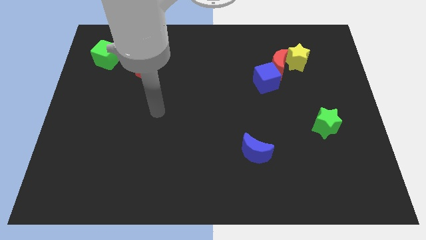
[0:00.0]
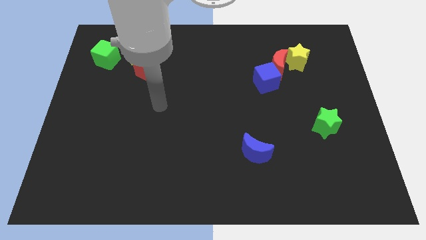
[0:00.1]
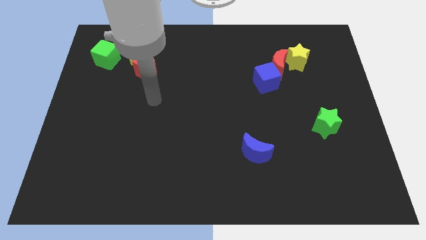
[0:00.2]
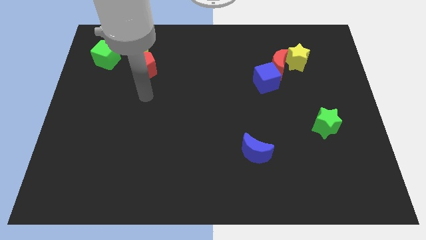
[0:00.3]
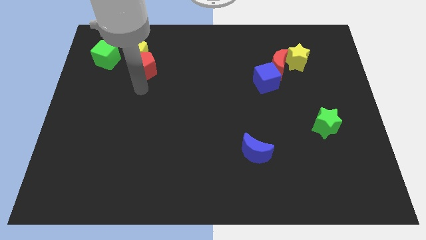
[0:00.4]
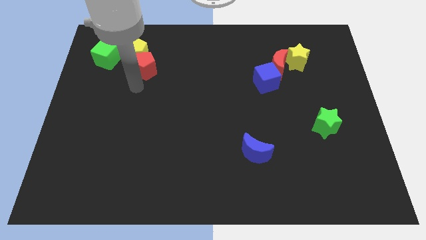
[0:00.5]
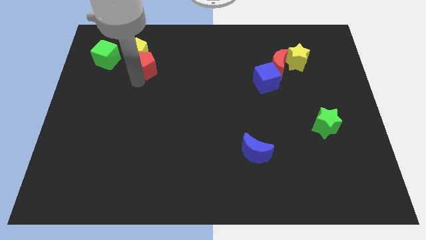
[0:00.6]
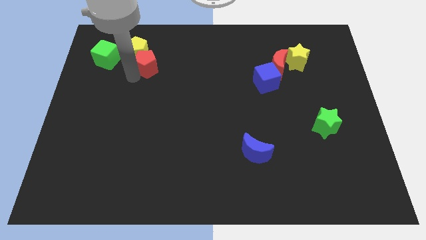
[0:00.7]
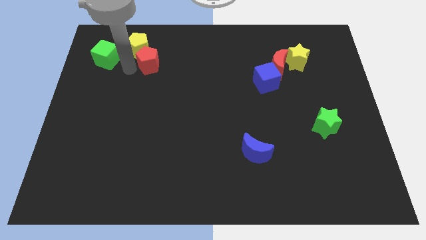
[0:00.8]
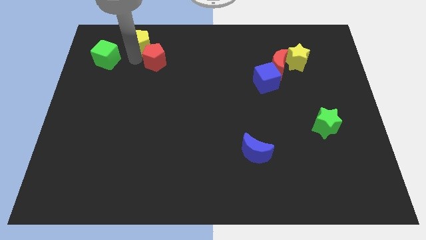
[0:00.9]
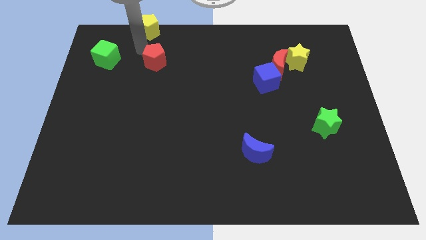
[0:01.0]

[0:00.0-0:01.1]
move the red pentagon away from the yellow pentagon

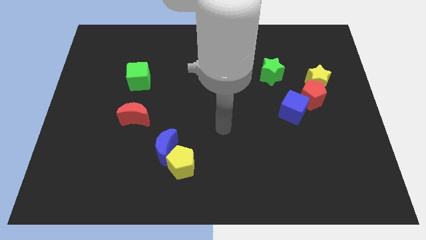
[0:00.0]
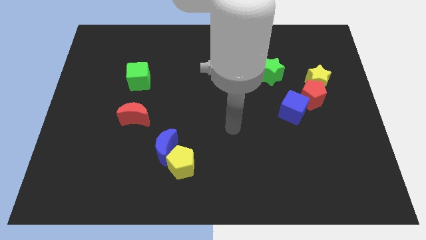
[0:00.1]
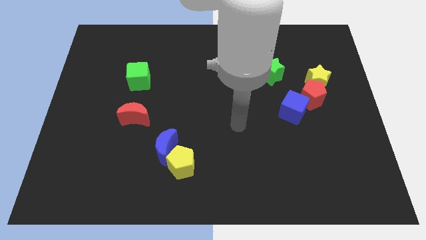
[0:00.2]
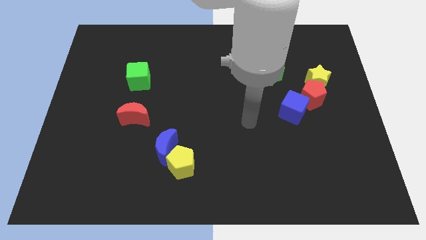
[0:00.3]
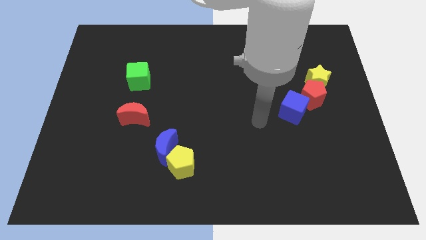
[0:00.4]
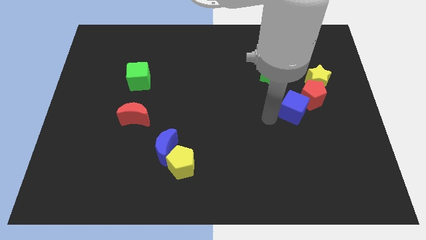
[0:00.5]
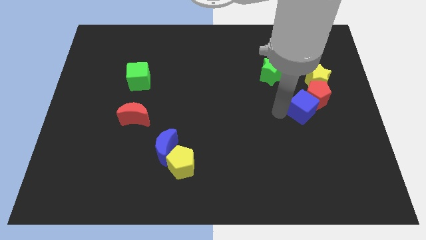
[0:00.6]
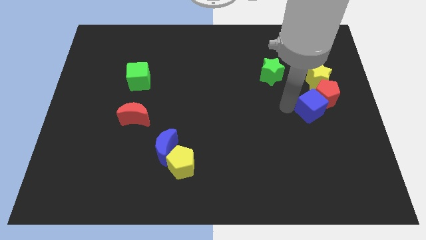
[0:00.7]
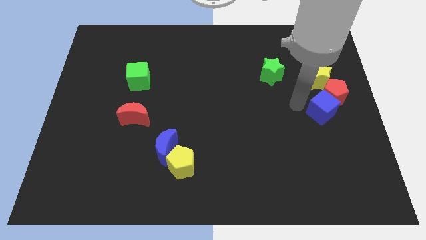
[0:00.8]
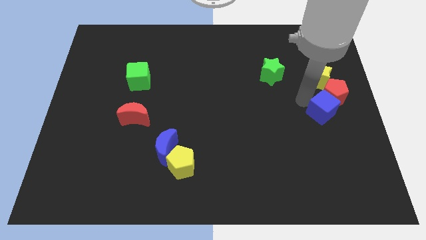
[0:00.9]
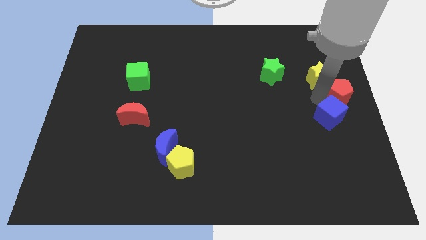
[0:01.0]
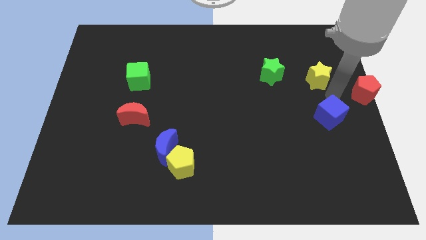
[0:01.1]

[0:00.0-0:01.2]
pull the yellow star apart from the red pentagon

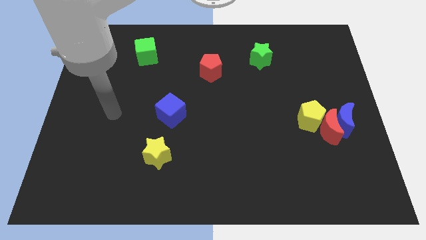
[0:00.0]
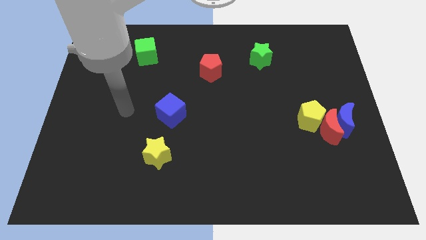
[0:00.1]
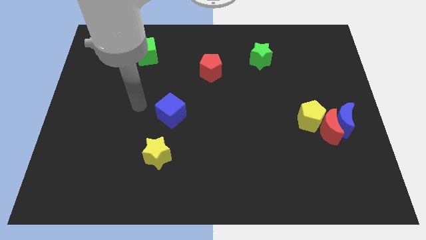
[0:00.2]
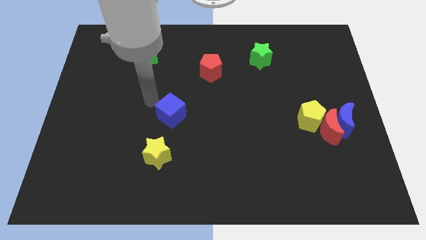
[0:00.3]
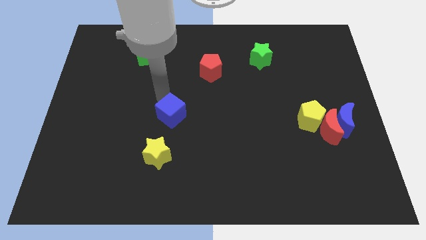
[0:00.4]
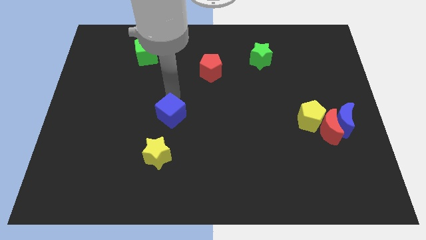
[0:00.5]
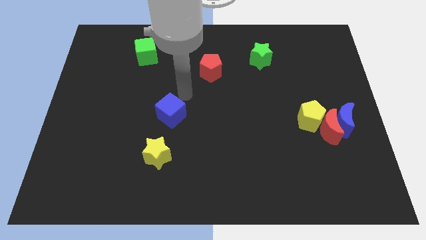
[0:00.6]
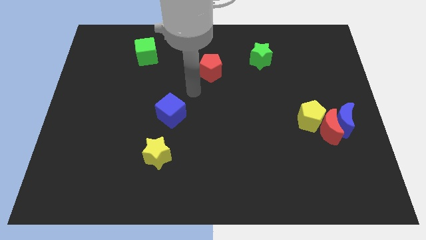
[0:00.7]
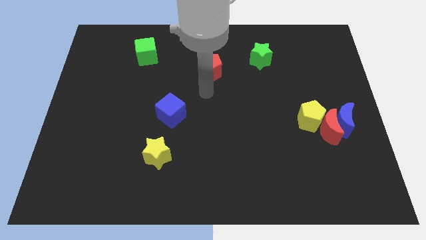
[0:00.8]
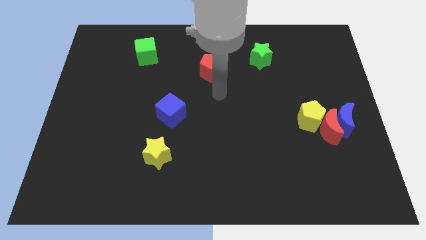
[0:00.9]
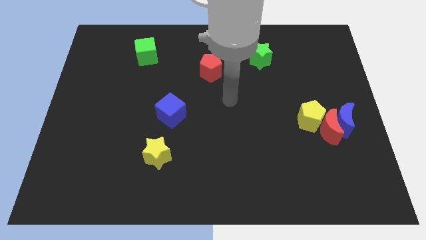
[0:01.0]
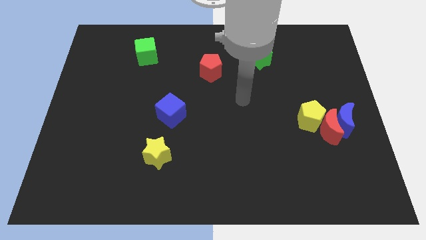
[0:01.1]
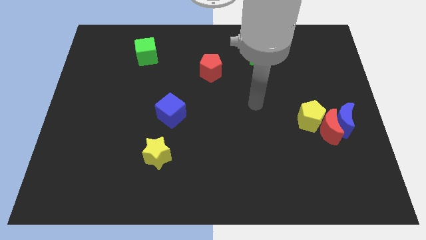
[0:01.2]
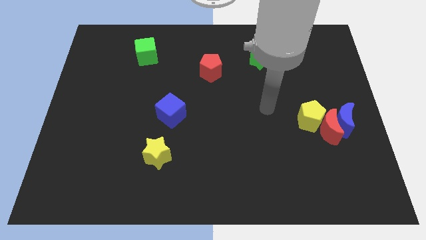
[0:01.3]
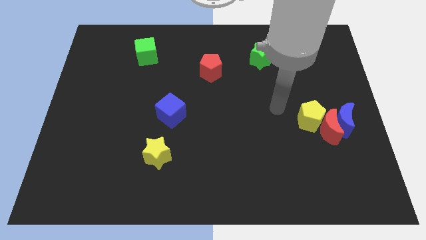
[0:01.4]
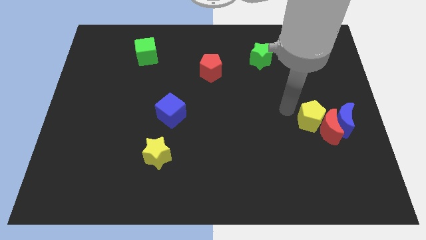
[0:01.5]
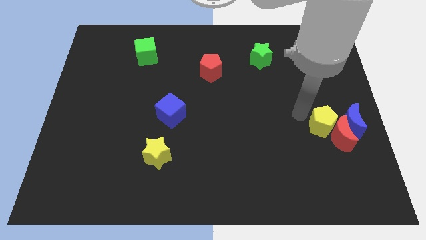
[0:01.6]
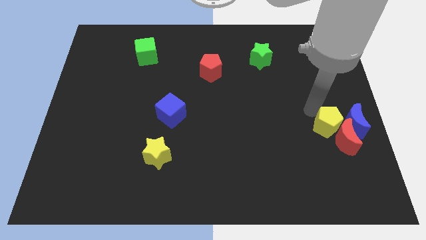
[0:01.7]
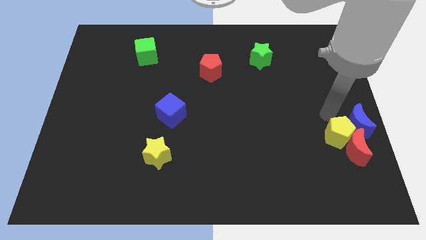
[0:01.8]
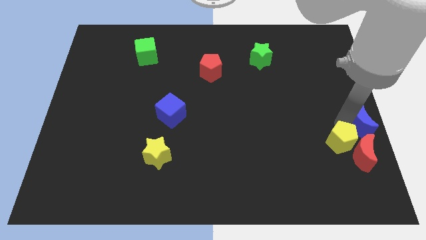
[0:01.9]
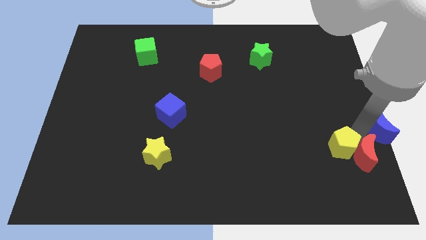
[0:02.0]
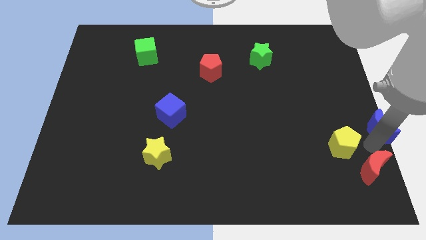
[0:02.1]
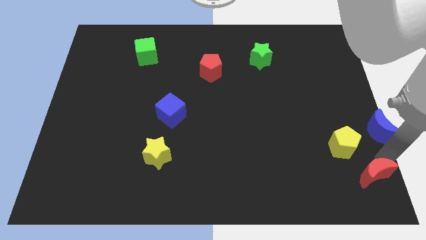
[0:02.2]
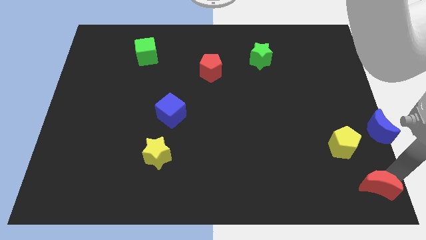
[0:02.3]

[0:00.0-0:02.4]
separate the red moon from the blue moon and yellow pentagon

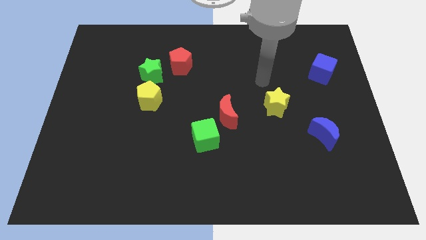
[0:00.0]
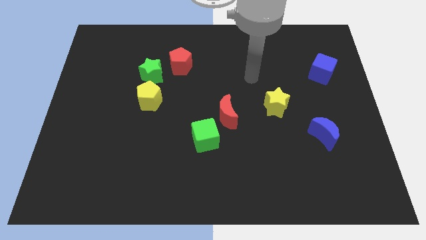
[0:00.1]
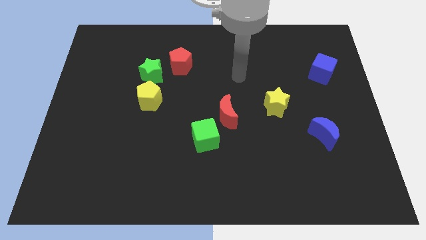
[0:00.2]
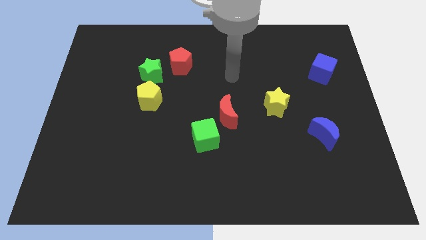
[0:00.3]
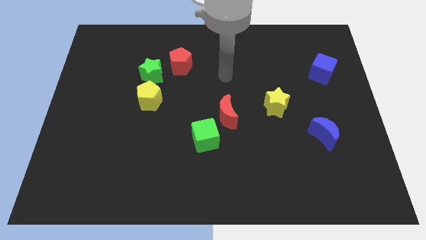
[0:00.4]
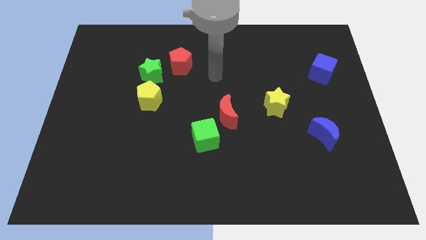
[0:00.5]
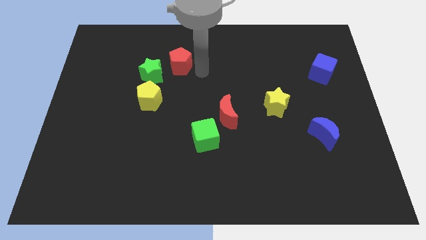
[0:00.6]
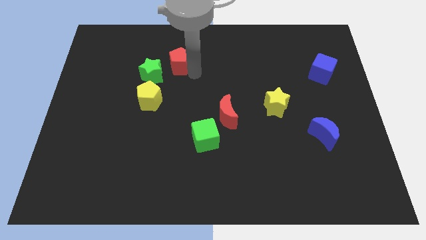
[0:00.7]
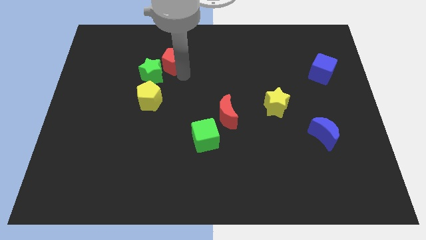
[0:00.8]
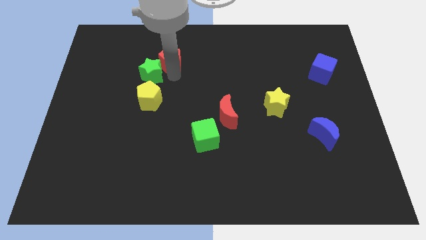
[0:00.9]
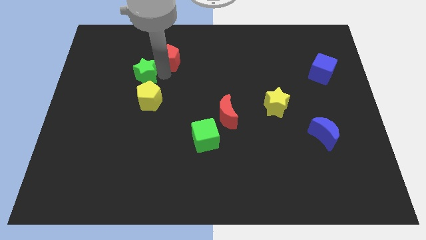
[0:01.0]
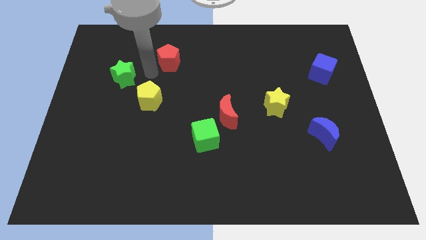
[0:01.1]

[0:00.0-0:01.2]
move the red pentagon away from the green star

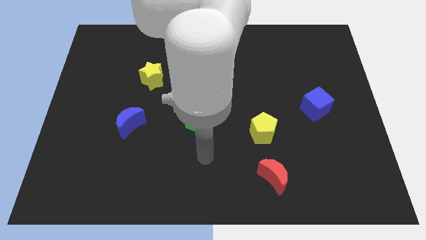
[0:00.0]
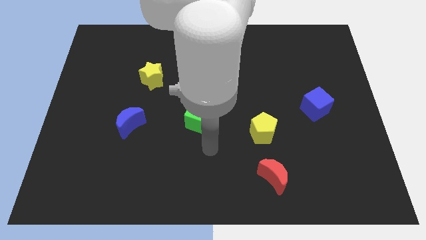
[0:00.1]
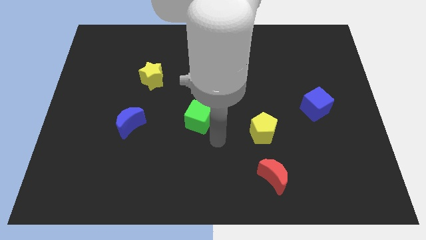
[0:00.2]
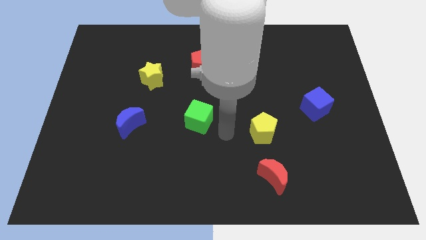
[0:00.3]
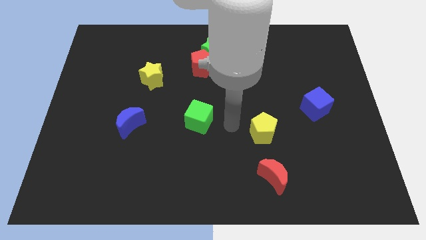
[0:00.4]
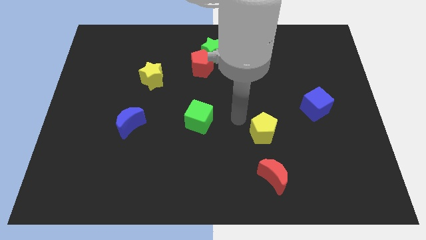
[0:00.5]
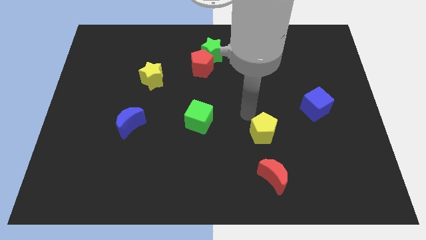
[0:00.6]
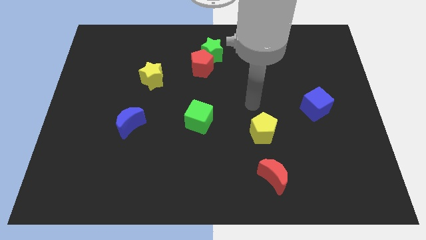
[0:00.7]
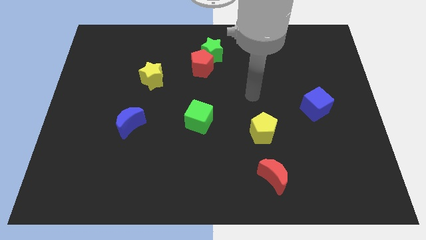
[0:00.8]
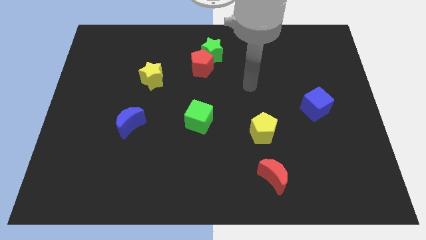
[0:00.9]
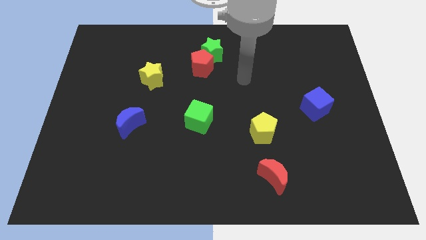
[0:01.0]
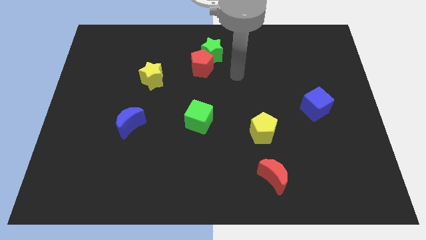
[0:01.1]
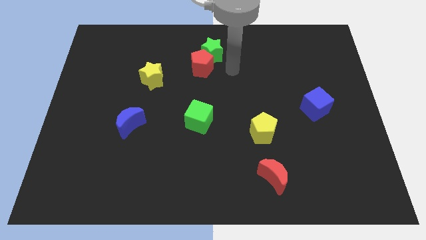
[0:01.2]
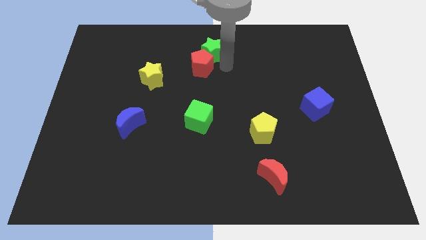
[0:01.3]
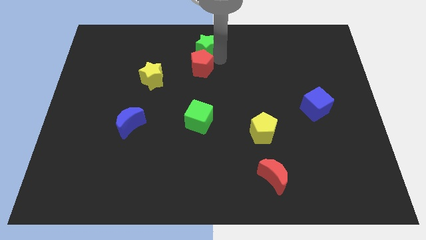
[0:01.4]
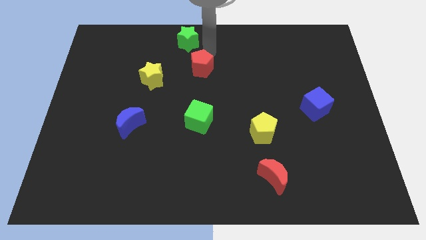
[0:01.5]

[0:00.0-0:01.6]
separate the red pentagon from the green star

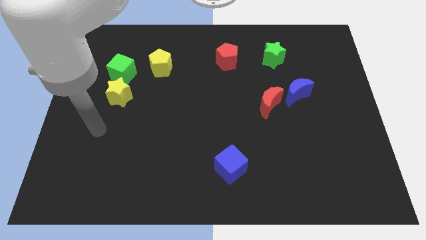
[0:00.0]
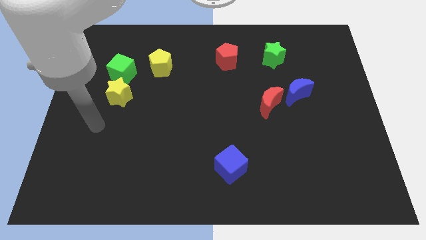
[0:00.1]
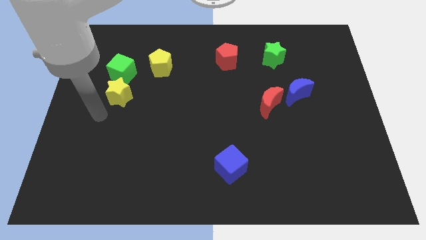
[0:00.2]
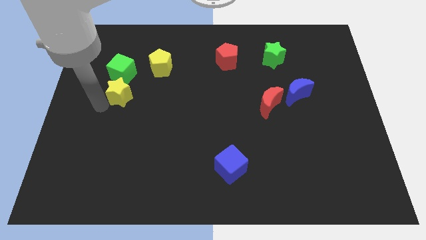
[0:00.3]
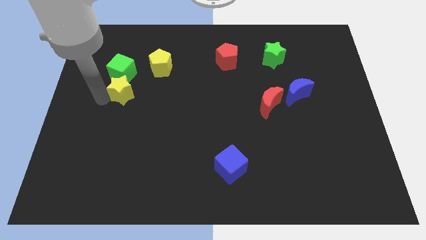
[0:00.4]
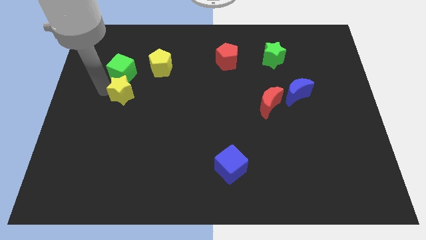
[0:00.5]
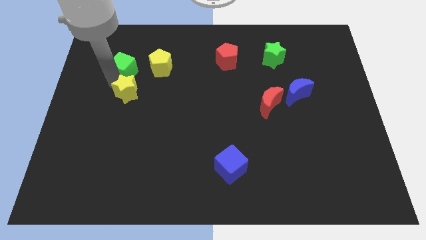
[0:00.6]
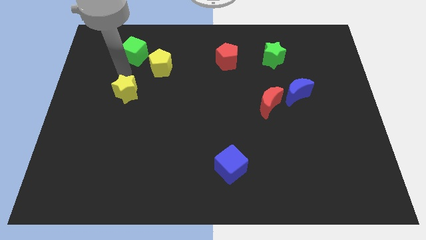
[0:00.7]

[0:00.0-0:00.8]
separate the yellow star from the green cube

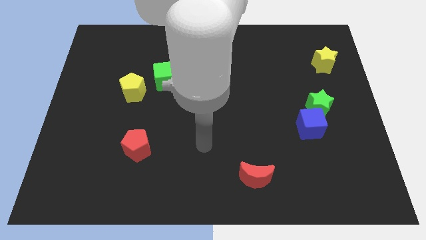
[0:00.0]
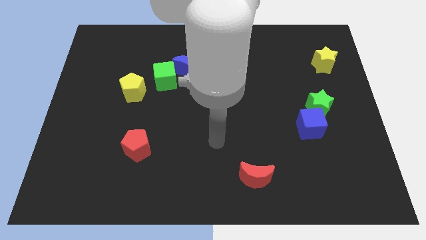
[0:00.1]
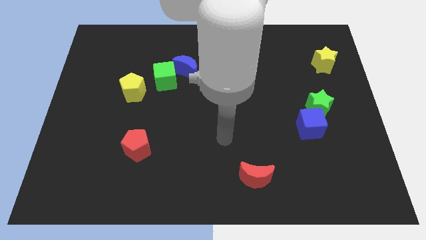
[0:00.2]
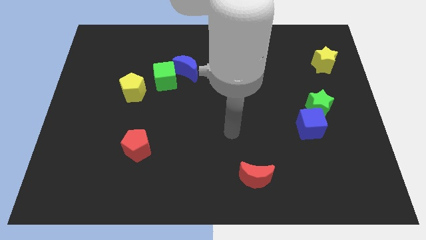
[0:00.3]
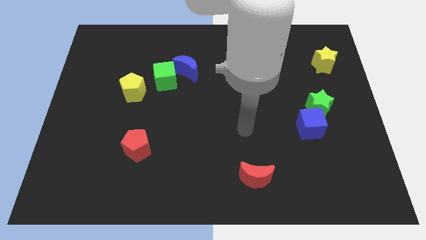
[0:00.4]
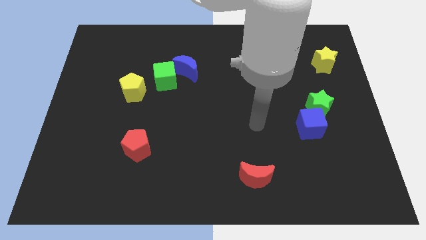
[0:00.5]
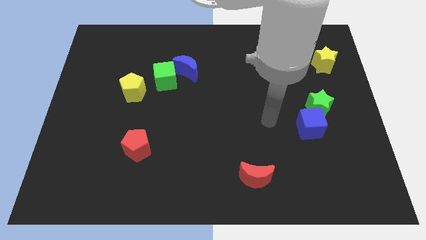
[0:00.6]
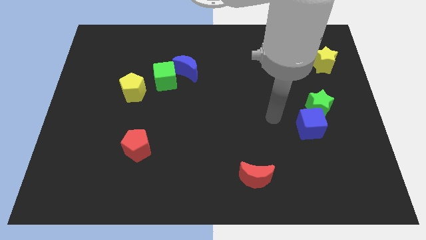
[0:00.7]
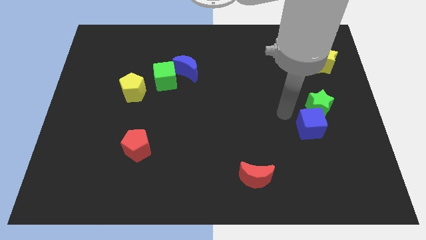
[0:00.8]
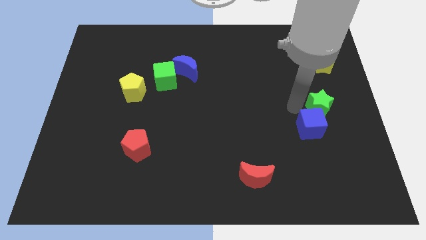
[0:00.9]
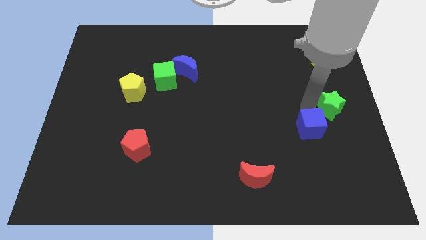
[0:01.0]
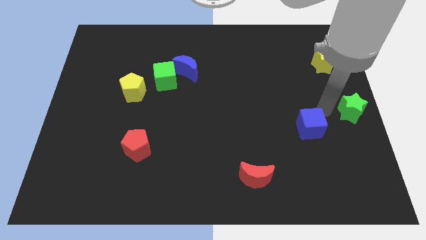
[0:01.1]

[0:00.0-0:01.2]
pull the blue cube apart from the green star
